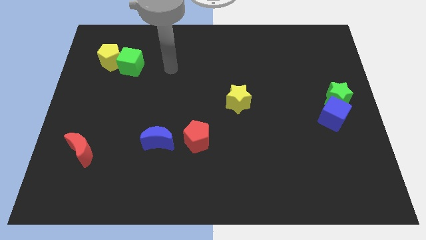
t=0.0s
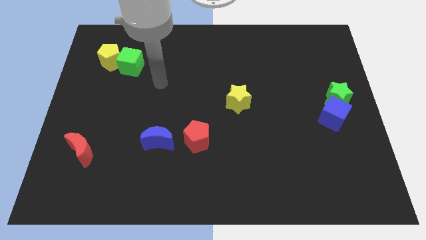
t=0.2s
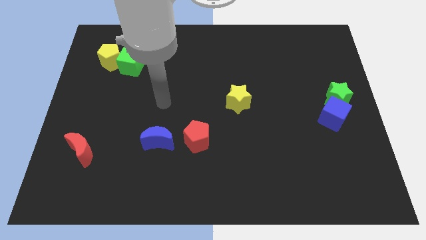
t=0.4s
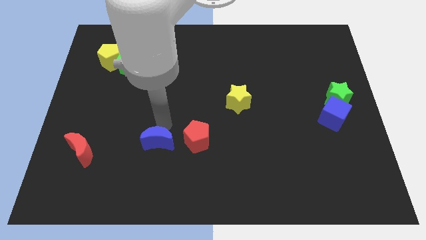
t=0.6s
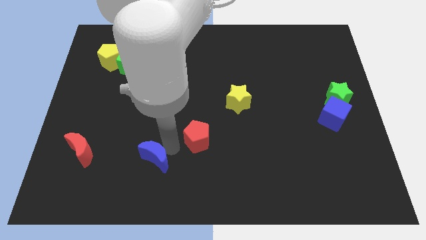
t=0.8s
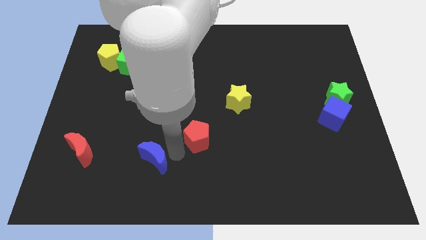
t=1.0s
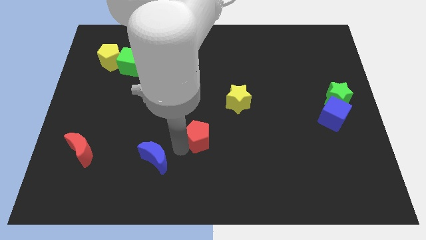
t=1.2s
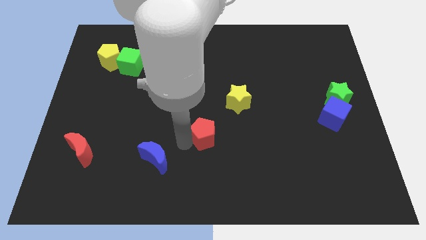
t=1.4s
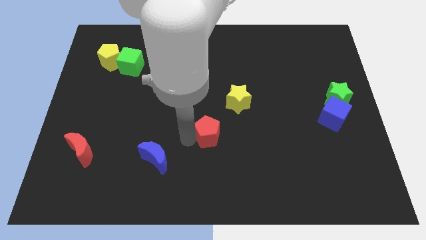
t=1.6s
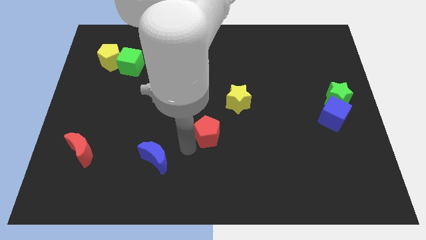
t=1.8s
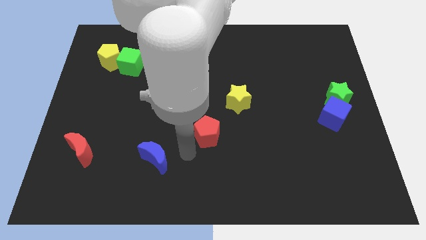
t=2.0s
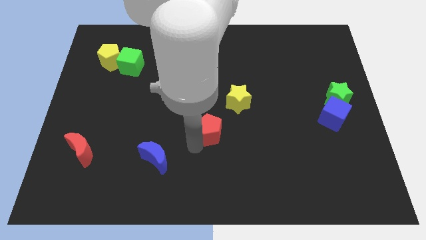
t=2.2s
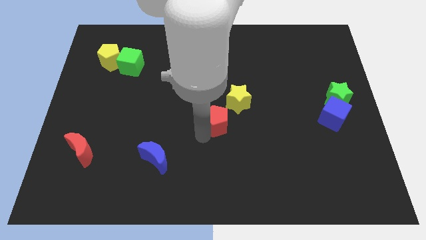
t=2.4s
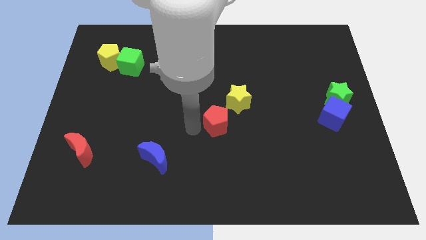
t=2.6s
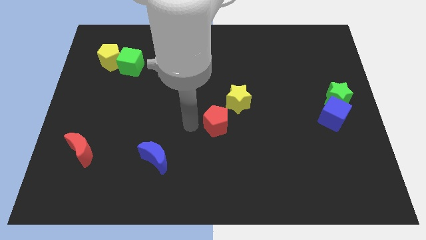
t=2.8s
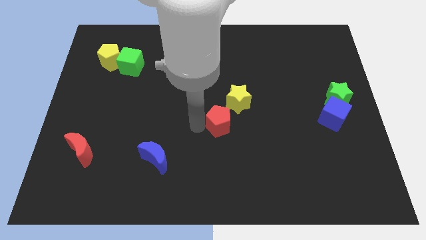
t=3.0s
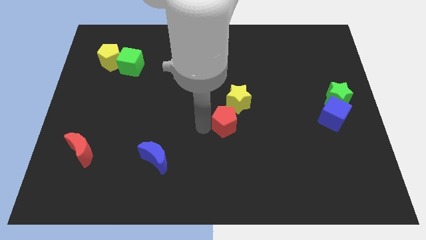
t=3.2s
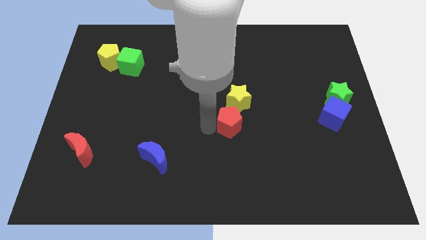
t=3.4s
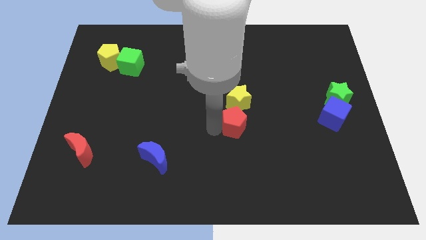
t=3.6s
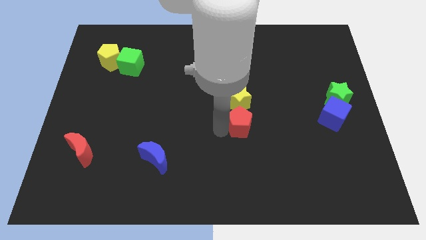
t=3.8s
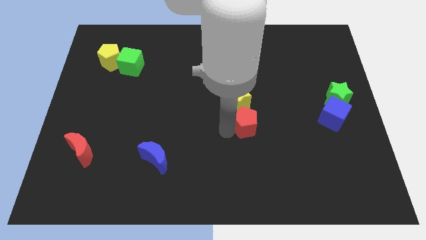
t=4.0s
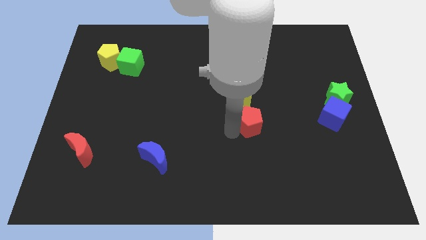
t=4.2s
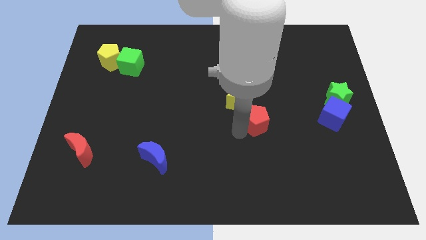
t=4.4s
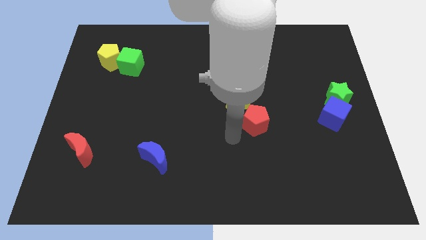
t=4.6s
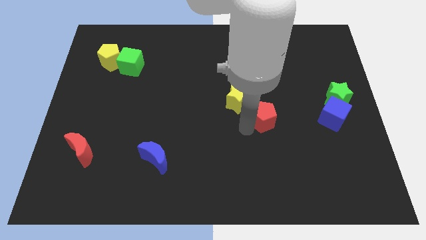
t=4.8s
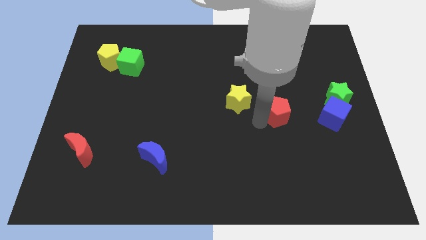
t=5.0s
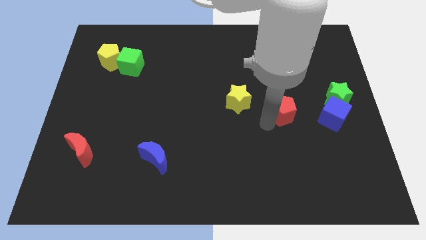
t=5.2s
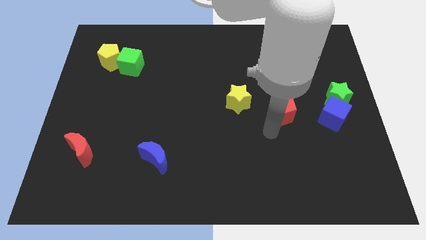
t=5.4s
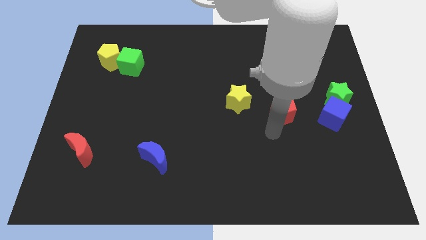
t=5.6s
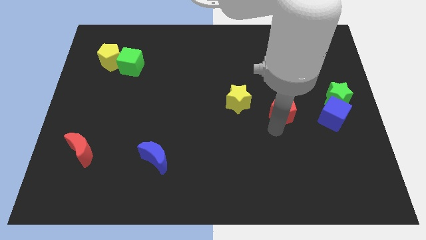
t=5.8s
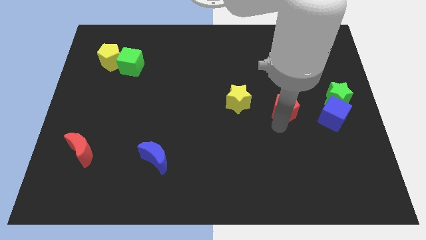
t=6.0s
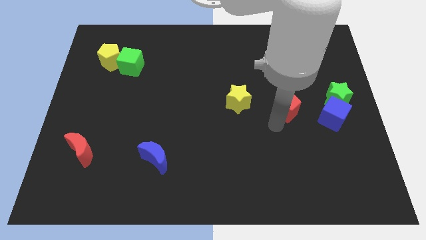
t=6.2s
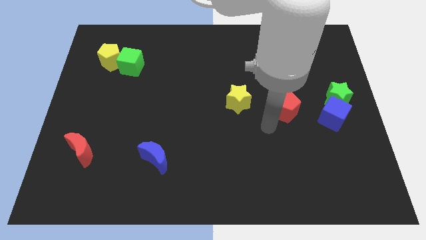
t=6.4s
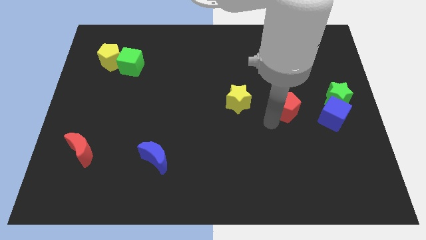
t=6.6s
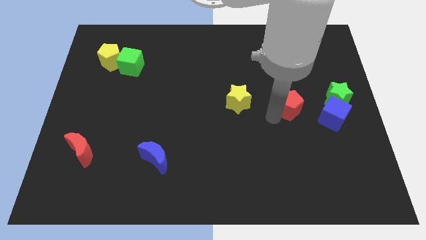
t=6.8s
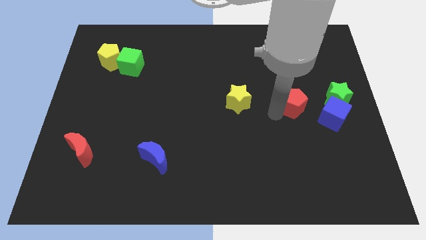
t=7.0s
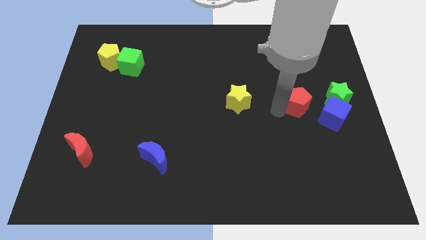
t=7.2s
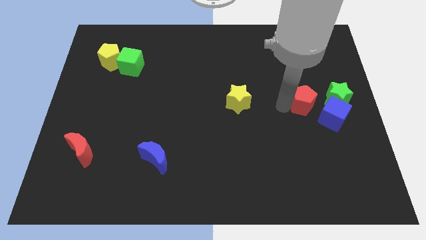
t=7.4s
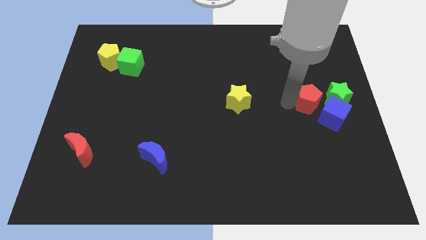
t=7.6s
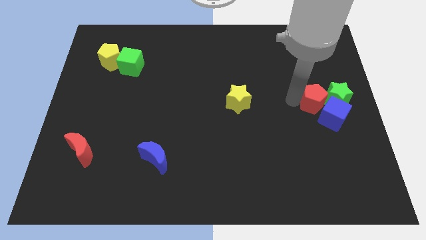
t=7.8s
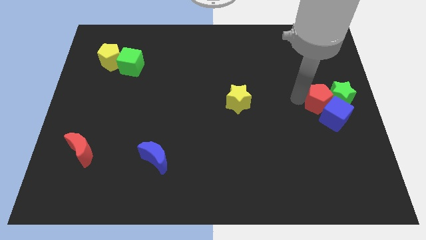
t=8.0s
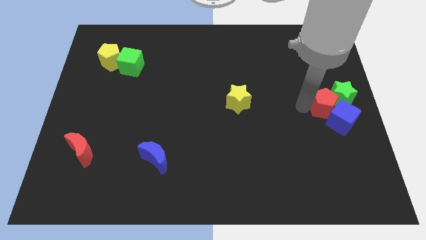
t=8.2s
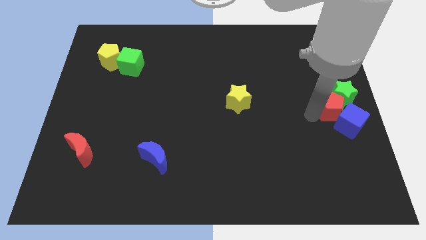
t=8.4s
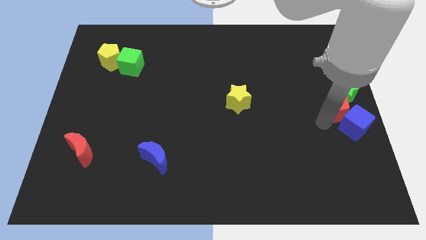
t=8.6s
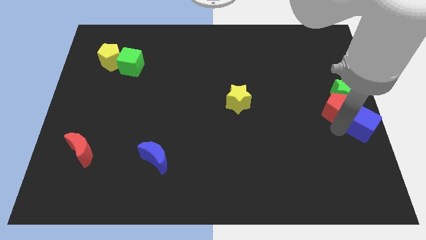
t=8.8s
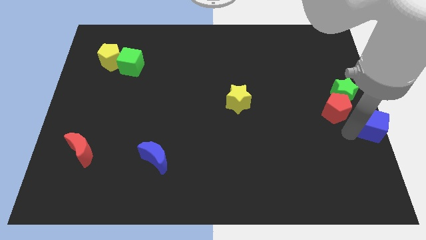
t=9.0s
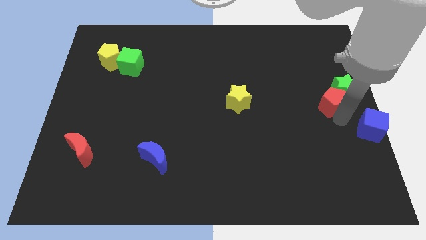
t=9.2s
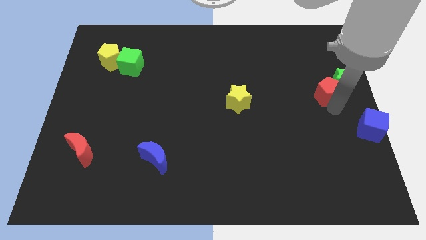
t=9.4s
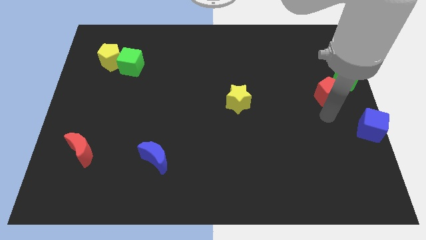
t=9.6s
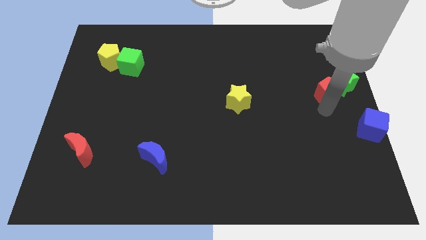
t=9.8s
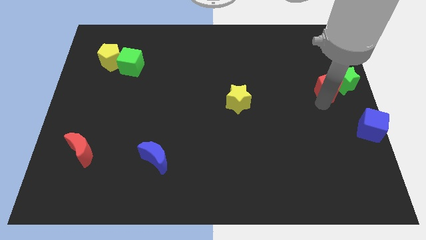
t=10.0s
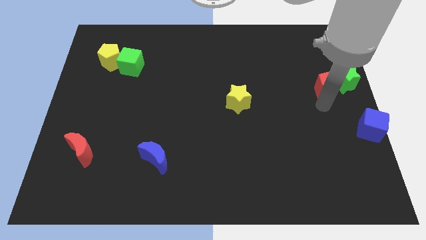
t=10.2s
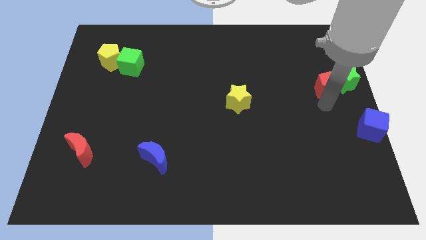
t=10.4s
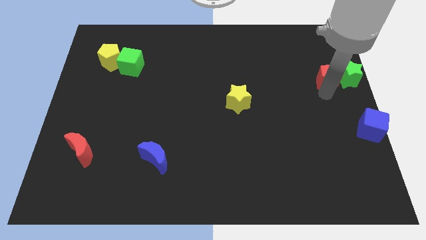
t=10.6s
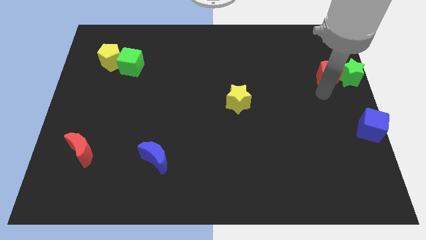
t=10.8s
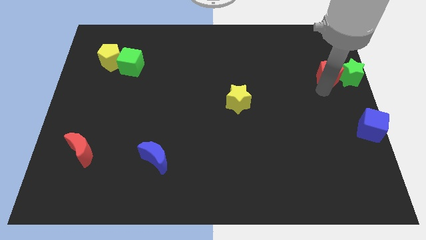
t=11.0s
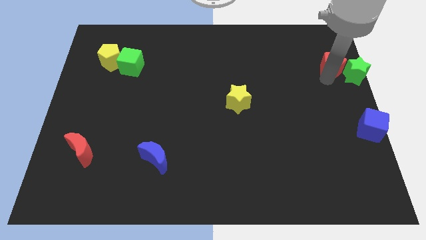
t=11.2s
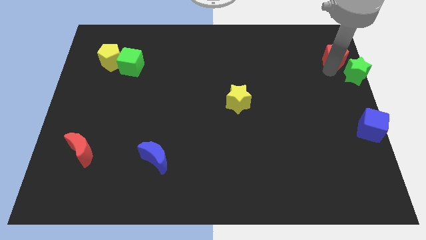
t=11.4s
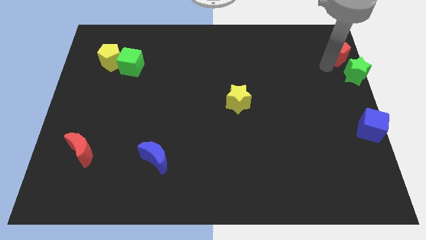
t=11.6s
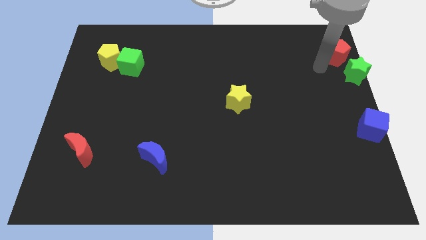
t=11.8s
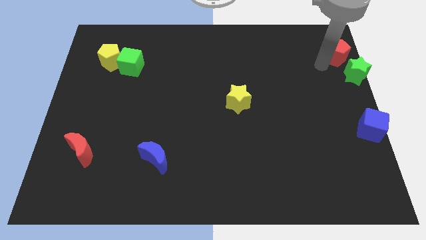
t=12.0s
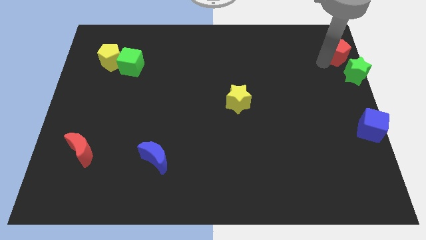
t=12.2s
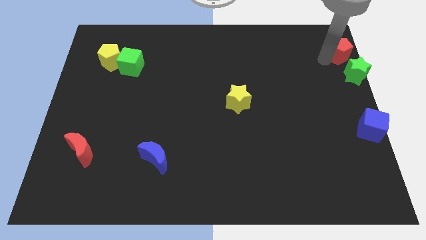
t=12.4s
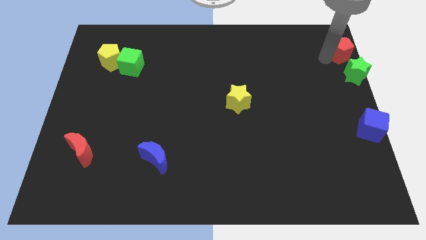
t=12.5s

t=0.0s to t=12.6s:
slide the red pentagon to the top right of the board
